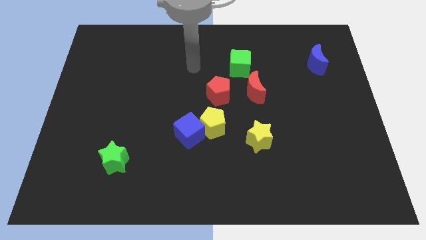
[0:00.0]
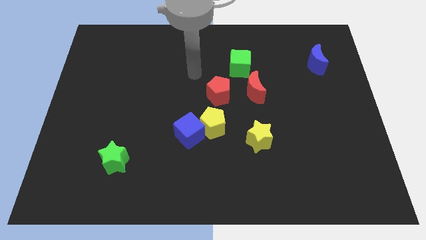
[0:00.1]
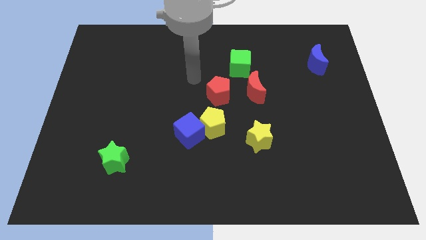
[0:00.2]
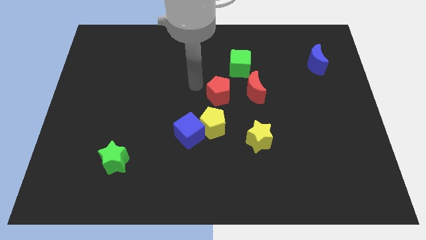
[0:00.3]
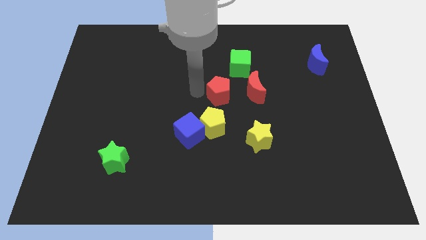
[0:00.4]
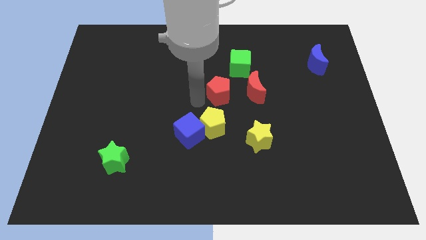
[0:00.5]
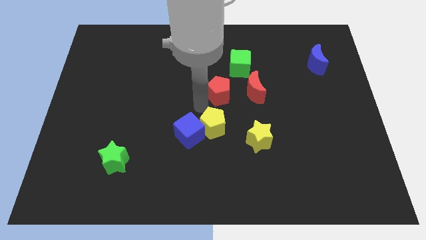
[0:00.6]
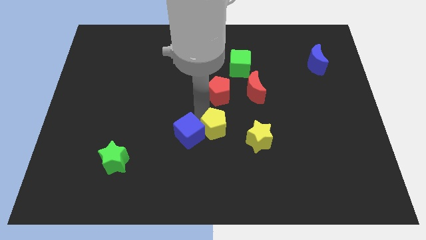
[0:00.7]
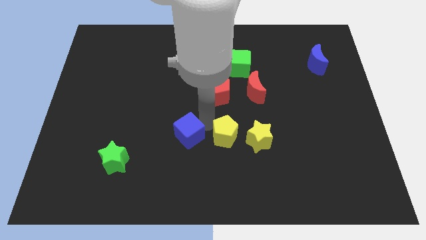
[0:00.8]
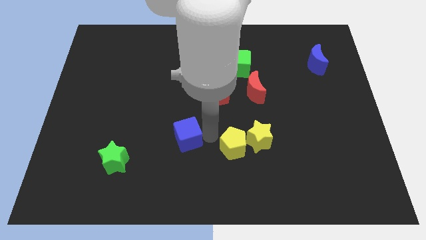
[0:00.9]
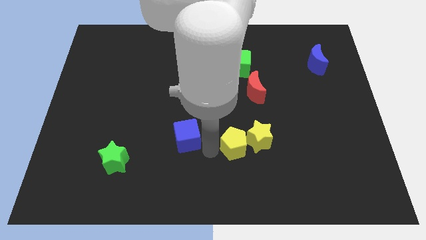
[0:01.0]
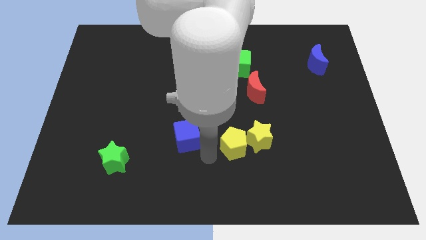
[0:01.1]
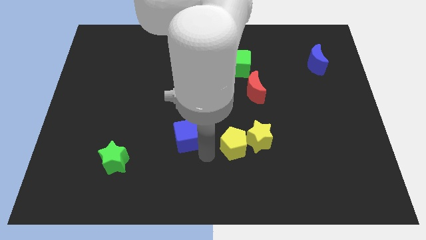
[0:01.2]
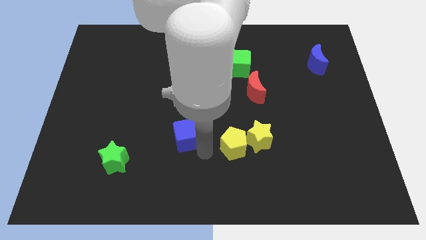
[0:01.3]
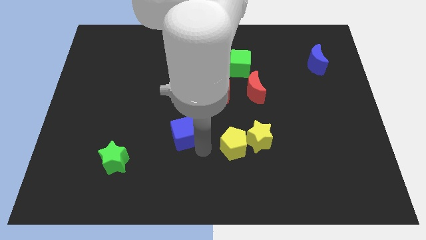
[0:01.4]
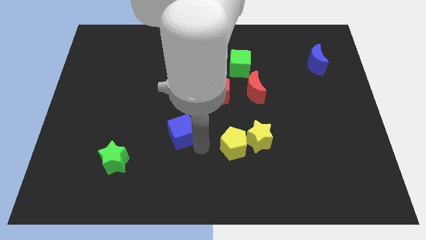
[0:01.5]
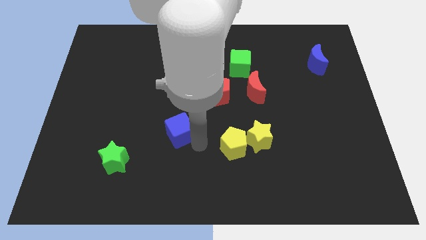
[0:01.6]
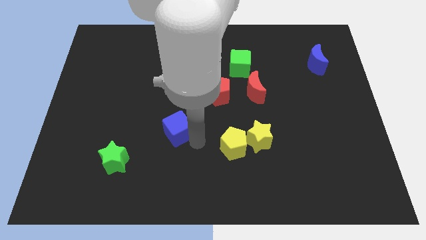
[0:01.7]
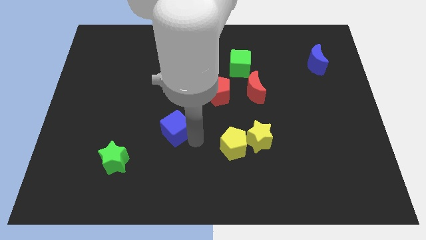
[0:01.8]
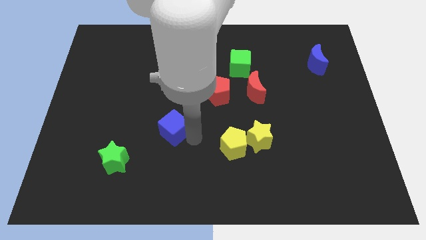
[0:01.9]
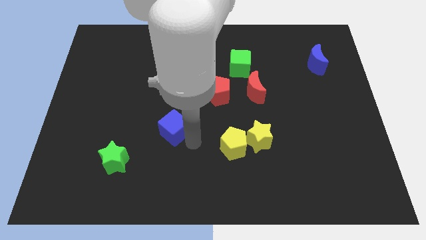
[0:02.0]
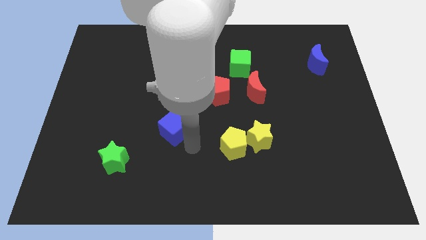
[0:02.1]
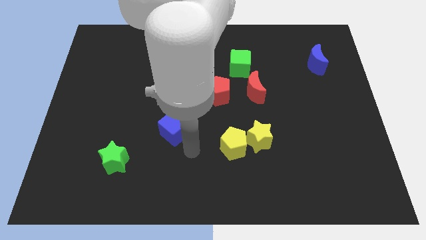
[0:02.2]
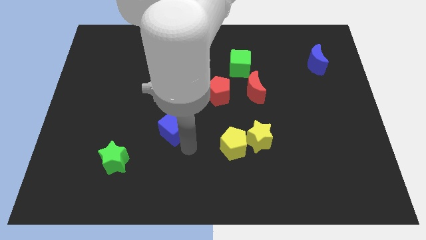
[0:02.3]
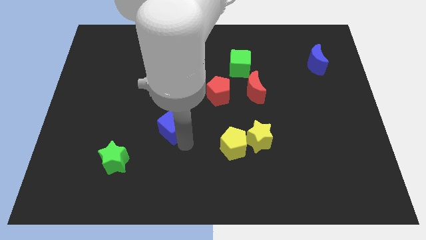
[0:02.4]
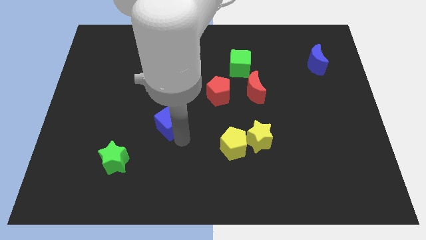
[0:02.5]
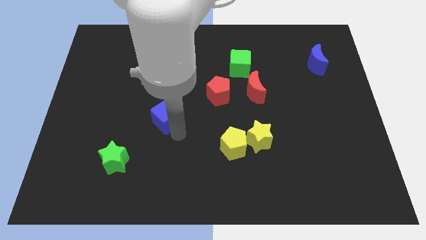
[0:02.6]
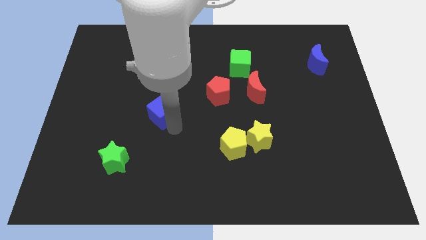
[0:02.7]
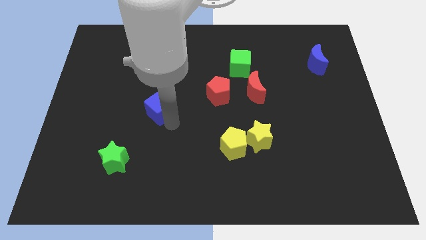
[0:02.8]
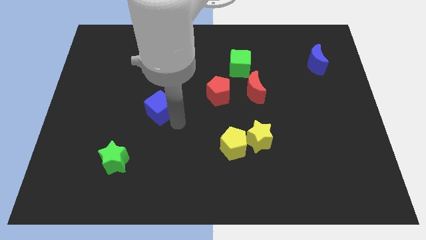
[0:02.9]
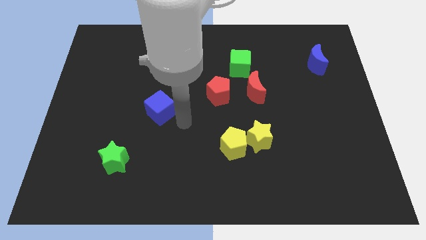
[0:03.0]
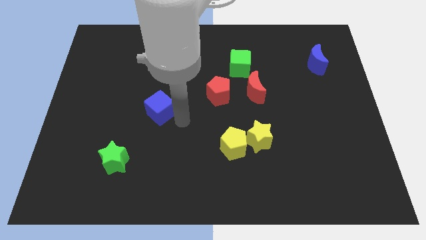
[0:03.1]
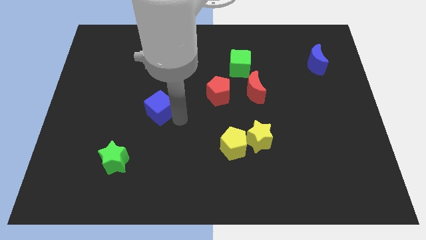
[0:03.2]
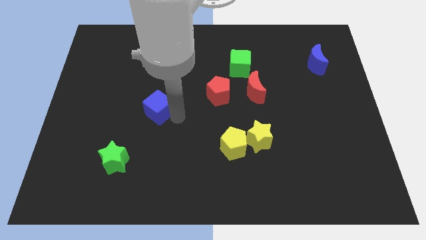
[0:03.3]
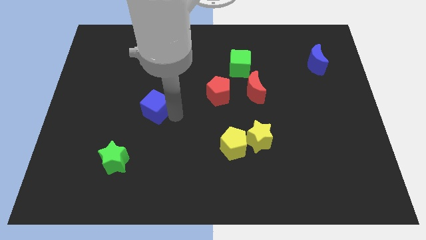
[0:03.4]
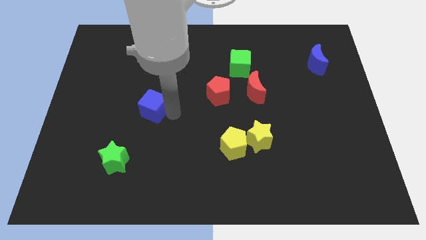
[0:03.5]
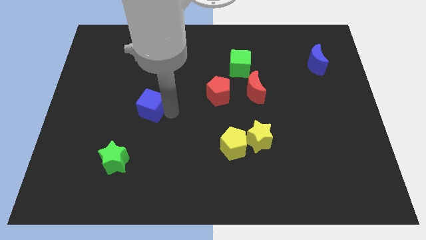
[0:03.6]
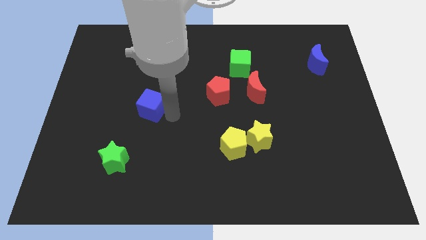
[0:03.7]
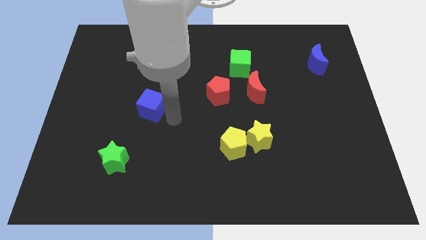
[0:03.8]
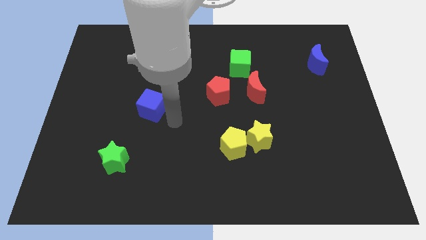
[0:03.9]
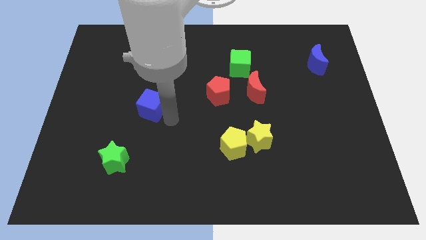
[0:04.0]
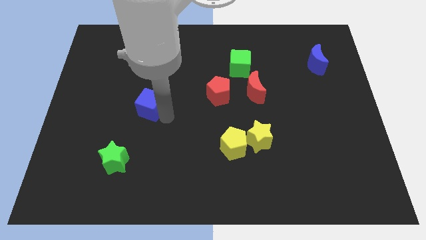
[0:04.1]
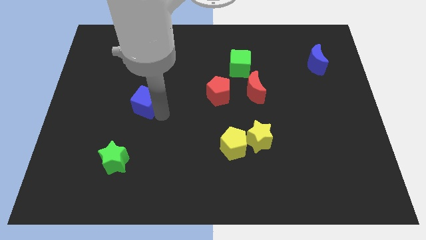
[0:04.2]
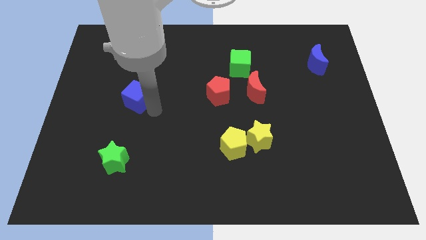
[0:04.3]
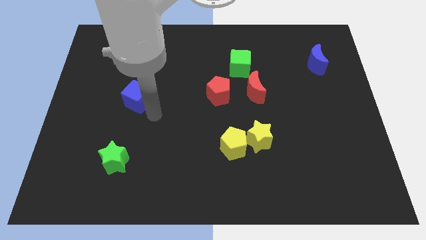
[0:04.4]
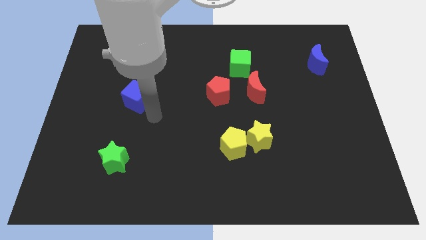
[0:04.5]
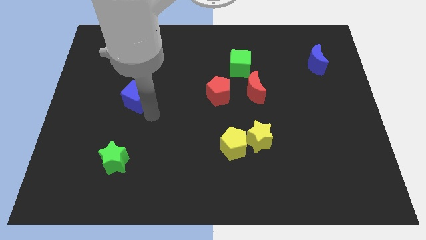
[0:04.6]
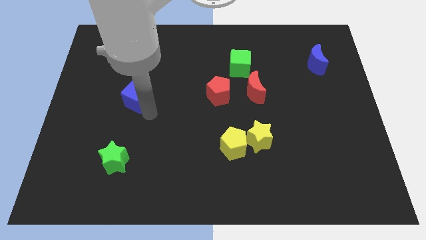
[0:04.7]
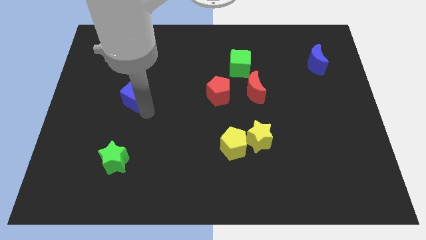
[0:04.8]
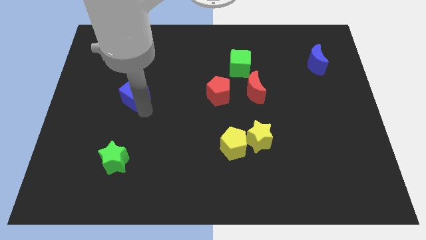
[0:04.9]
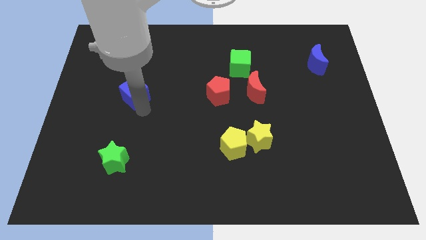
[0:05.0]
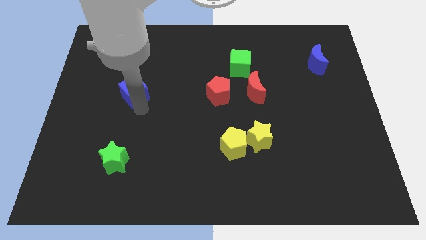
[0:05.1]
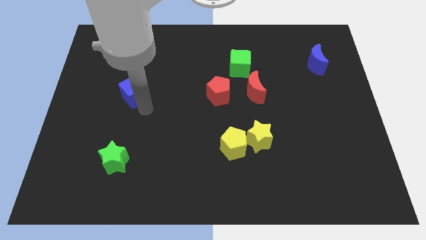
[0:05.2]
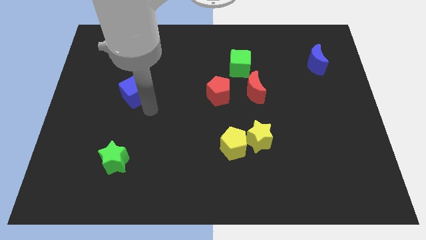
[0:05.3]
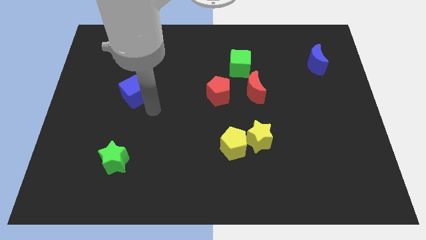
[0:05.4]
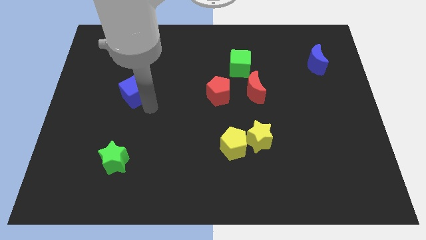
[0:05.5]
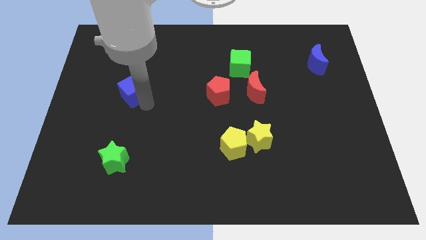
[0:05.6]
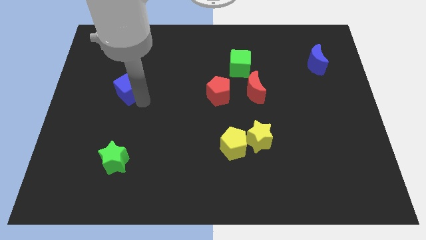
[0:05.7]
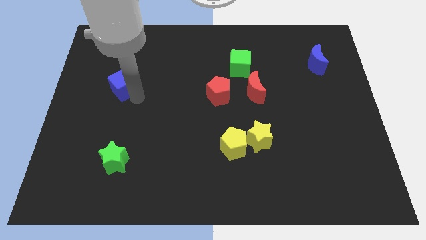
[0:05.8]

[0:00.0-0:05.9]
push the blue cube upwards and then left

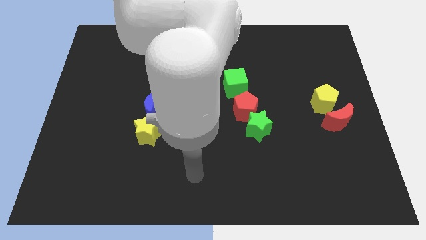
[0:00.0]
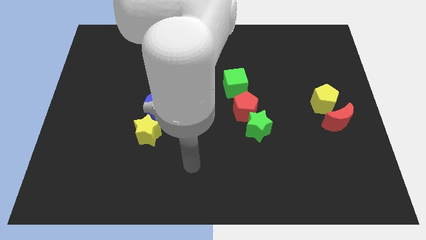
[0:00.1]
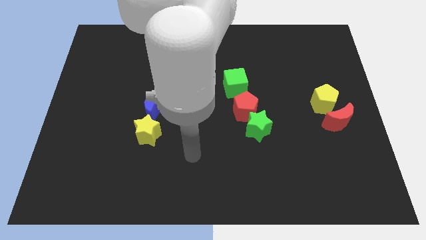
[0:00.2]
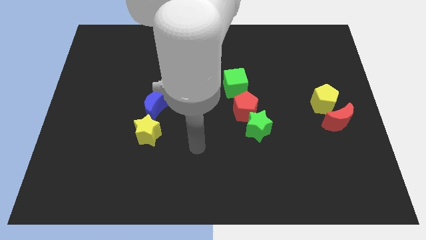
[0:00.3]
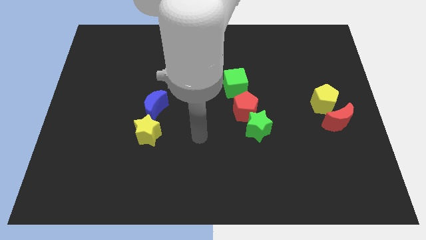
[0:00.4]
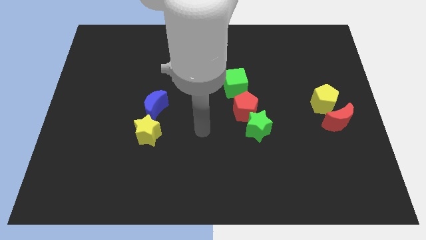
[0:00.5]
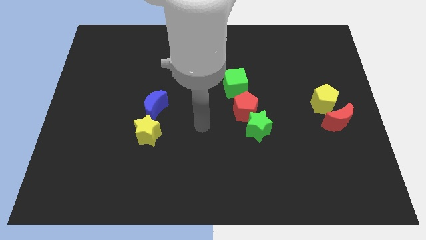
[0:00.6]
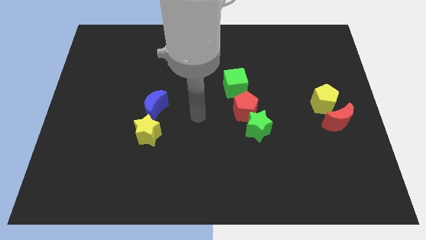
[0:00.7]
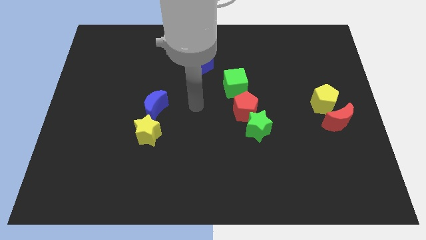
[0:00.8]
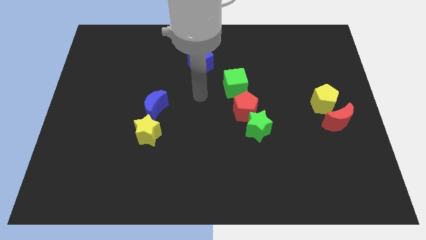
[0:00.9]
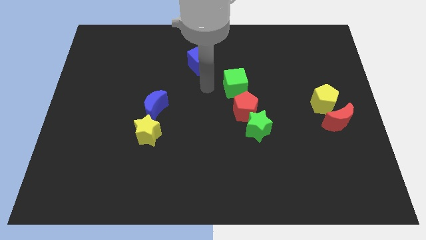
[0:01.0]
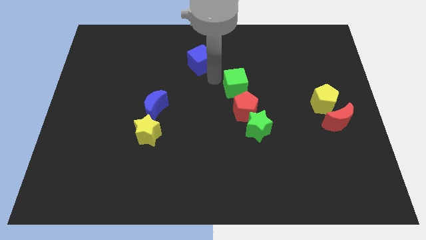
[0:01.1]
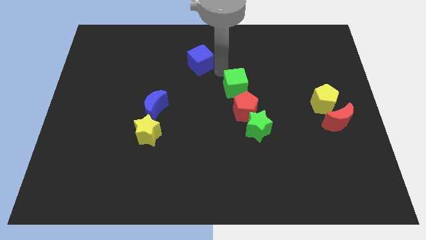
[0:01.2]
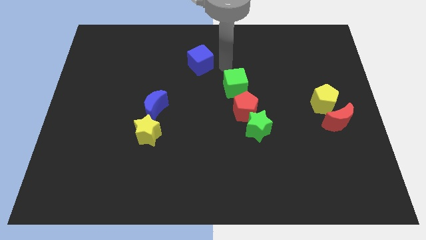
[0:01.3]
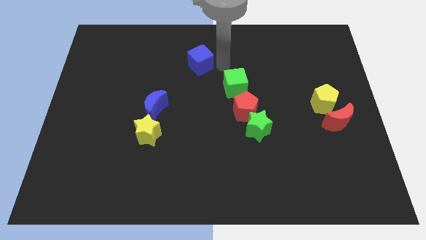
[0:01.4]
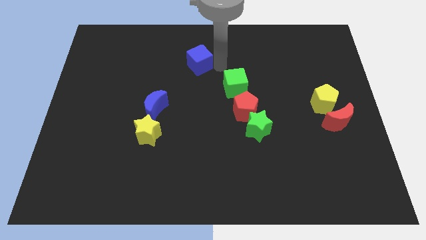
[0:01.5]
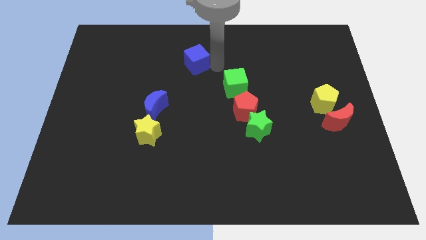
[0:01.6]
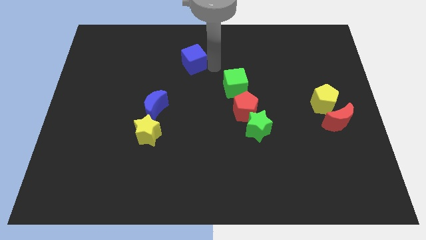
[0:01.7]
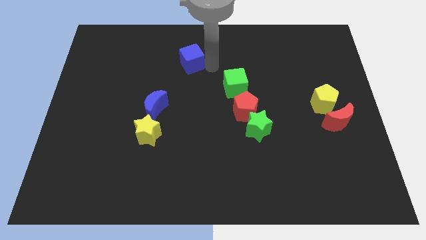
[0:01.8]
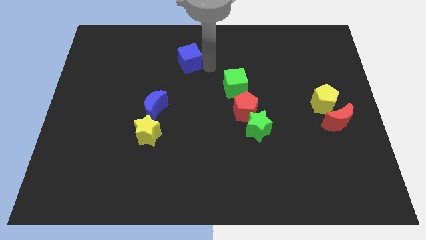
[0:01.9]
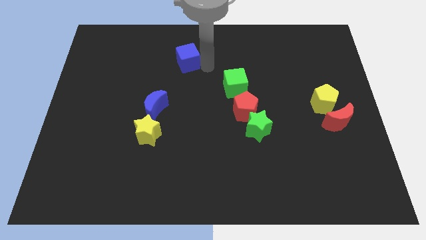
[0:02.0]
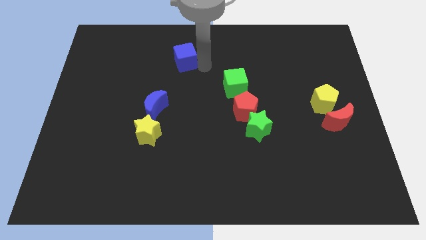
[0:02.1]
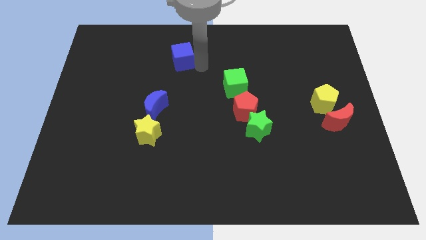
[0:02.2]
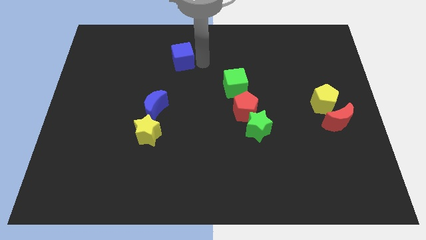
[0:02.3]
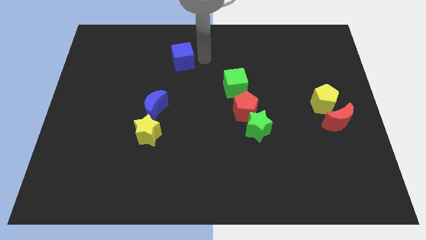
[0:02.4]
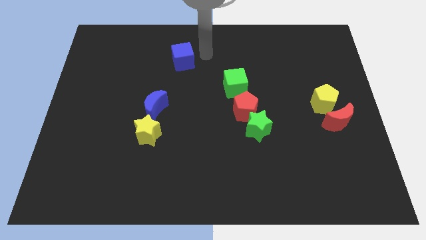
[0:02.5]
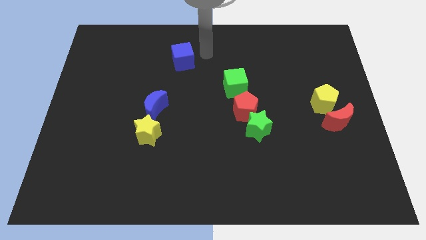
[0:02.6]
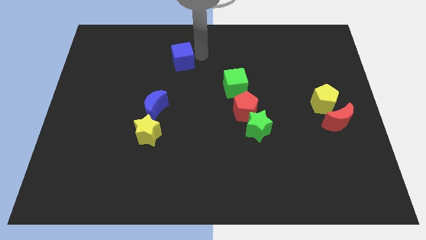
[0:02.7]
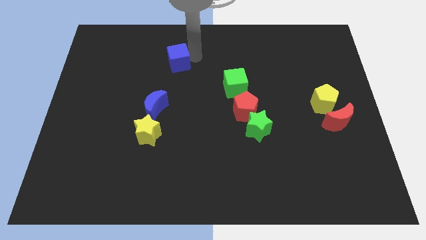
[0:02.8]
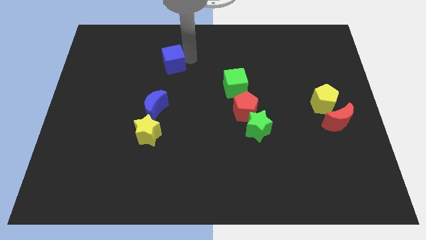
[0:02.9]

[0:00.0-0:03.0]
move the blue cube a little to the left
